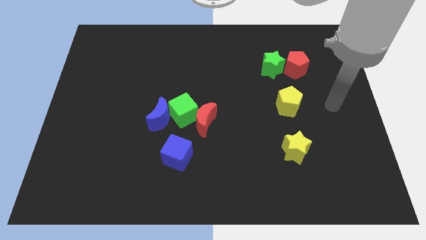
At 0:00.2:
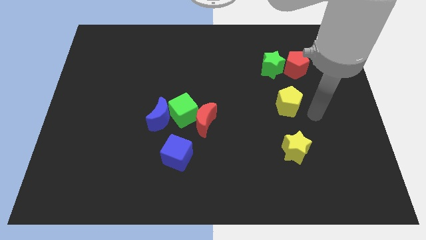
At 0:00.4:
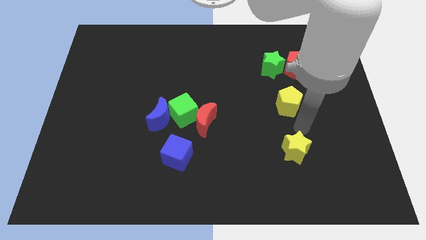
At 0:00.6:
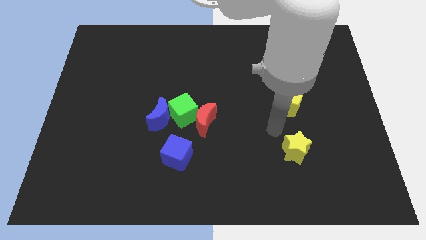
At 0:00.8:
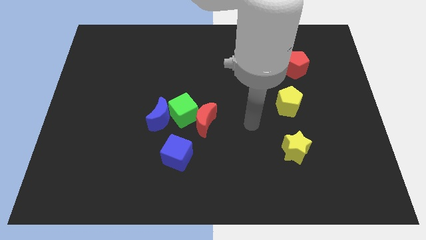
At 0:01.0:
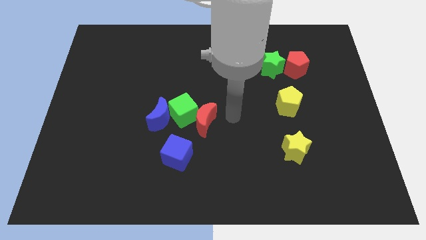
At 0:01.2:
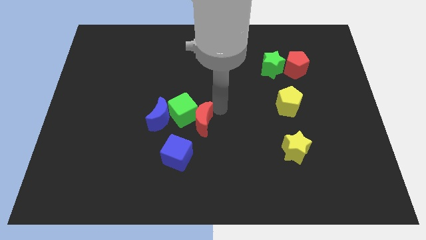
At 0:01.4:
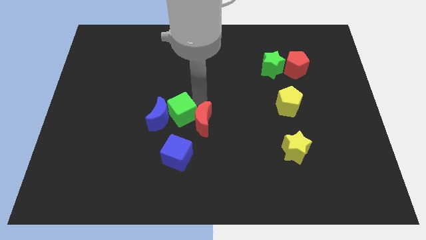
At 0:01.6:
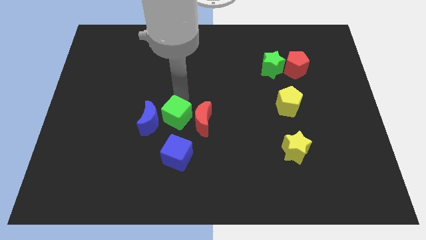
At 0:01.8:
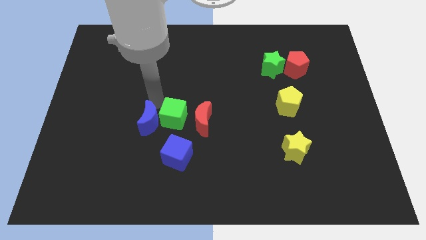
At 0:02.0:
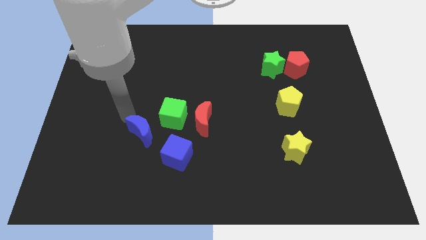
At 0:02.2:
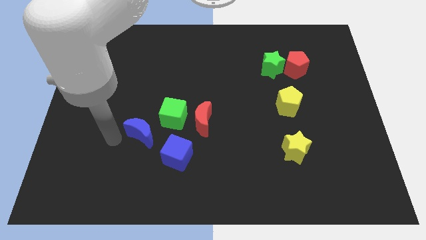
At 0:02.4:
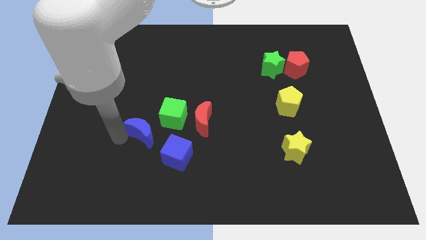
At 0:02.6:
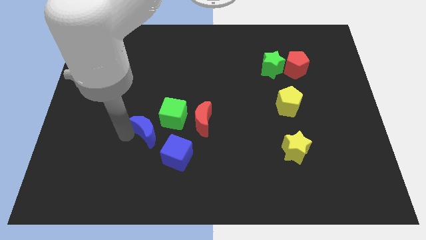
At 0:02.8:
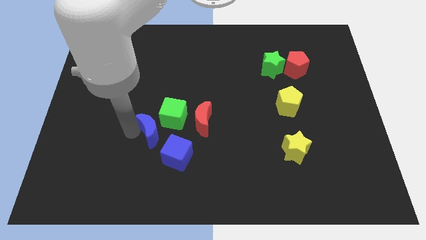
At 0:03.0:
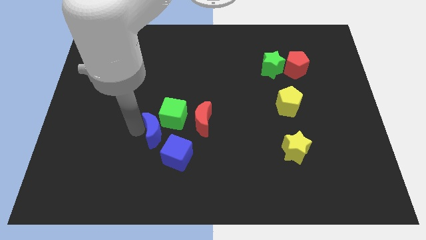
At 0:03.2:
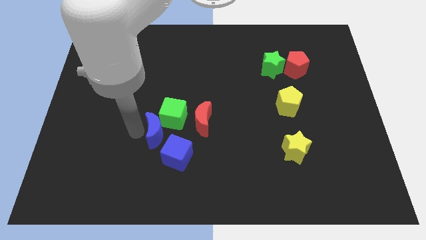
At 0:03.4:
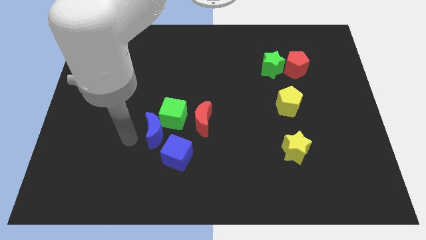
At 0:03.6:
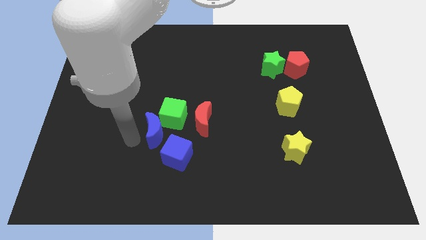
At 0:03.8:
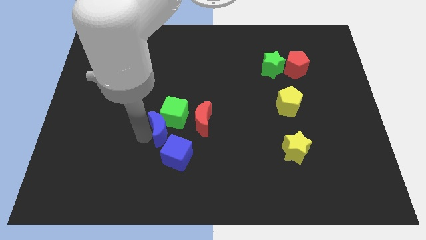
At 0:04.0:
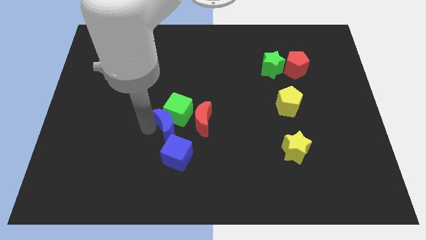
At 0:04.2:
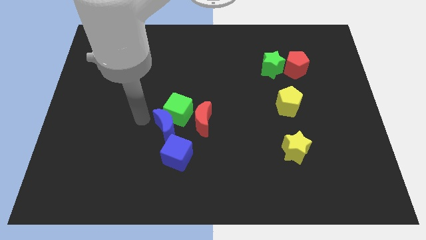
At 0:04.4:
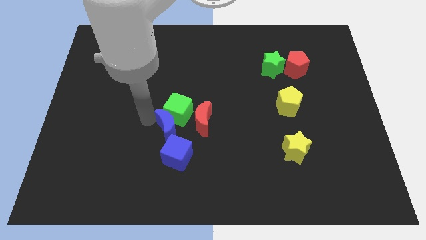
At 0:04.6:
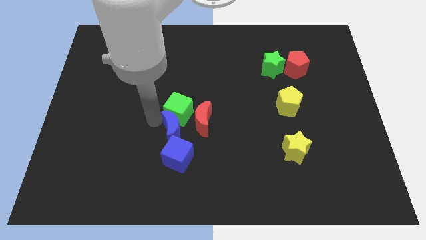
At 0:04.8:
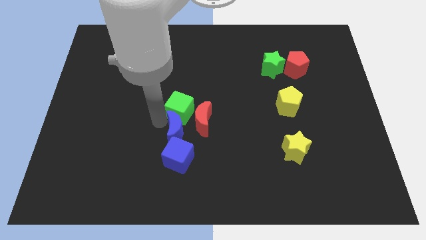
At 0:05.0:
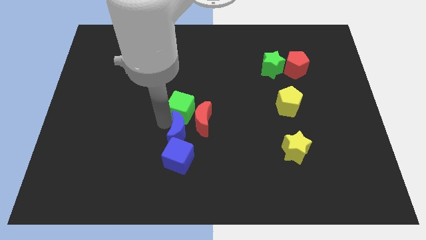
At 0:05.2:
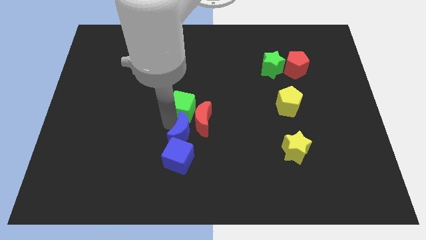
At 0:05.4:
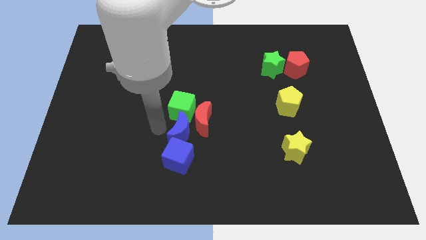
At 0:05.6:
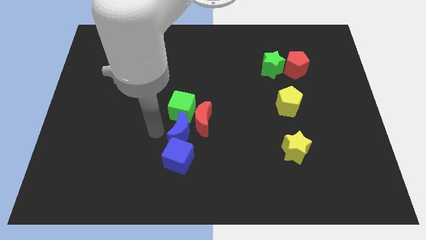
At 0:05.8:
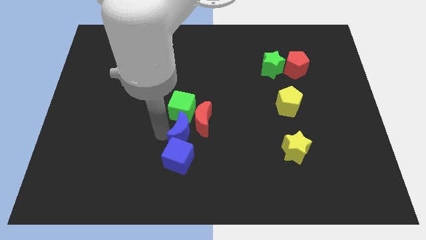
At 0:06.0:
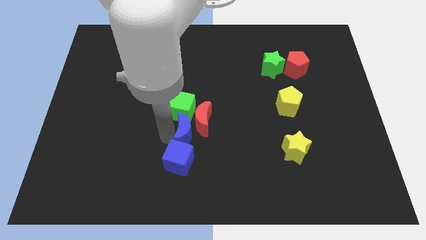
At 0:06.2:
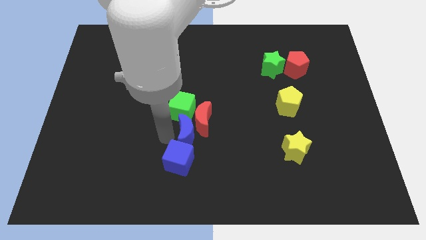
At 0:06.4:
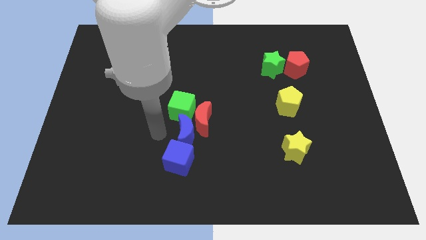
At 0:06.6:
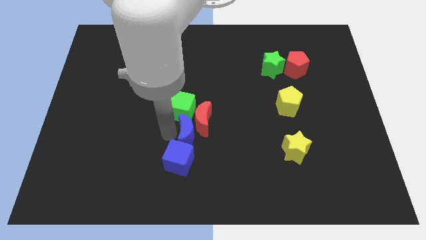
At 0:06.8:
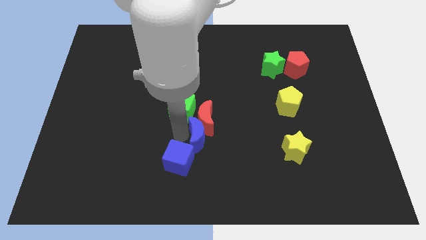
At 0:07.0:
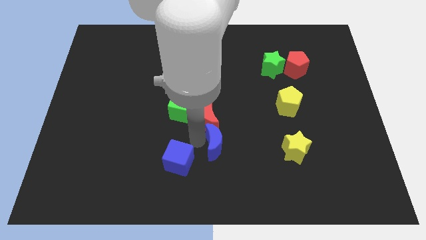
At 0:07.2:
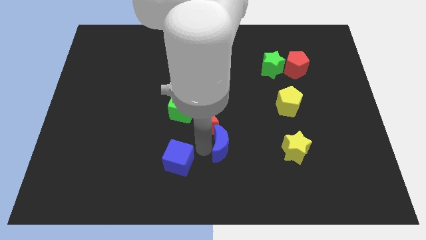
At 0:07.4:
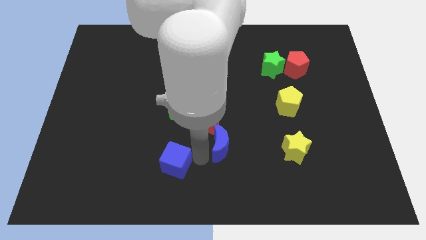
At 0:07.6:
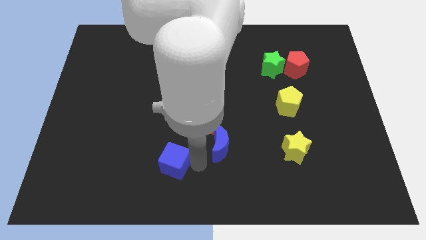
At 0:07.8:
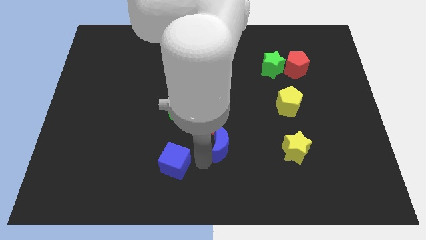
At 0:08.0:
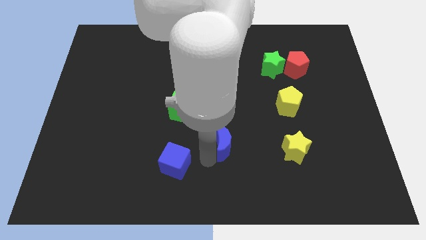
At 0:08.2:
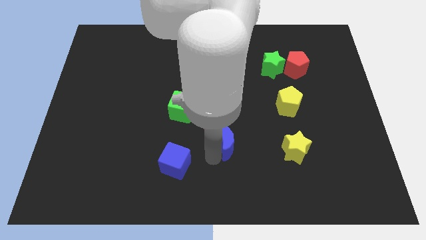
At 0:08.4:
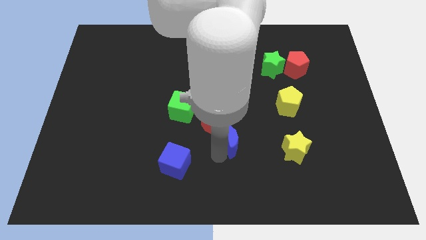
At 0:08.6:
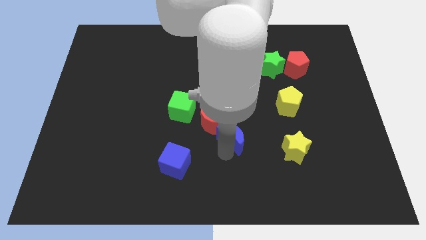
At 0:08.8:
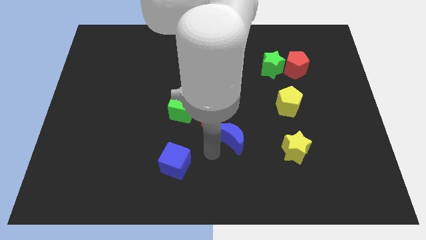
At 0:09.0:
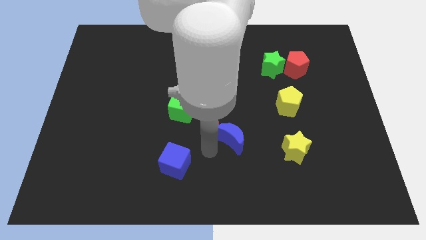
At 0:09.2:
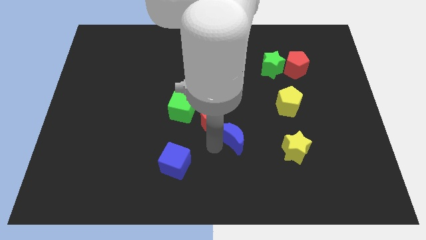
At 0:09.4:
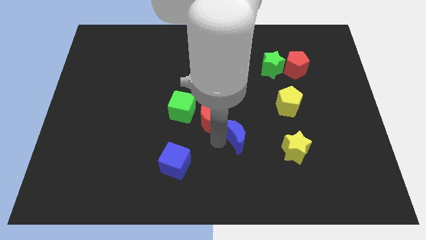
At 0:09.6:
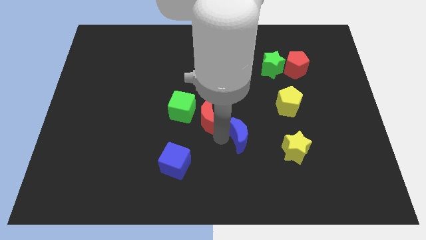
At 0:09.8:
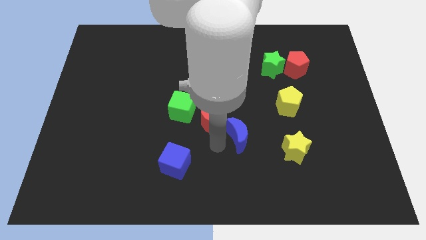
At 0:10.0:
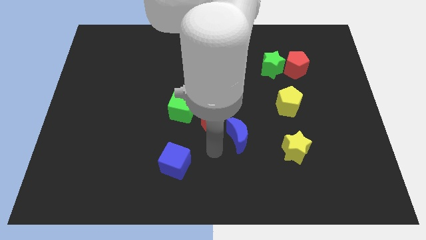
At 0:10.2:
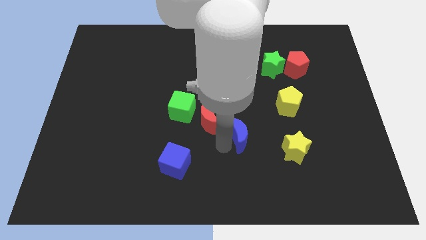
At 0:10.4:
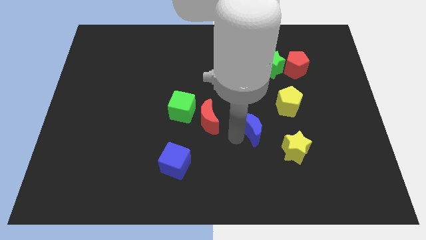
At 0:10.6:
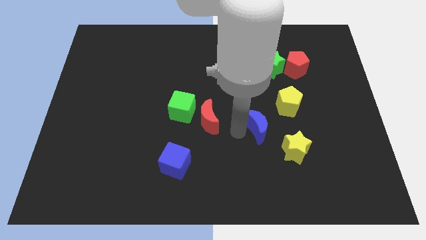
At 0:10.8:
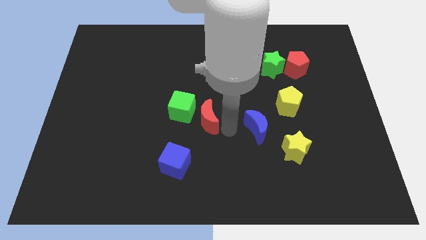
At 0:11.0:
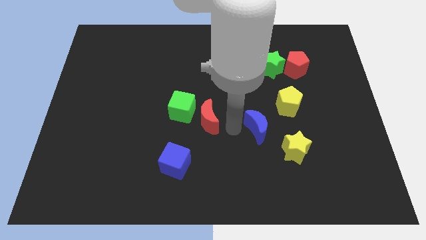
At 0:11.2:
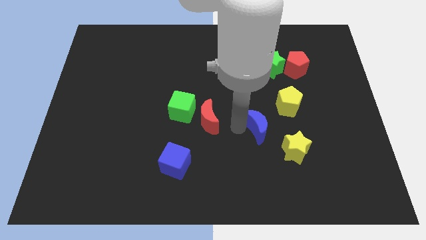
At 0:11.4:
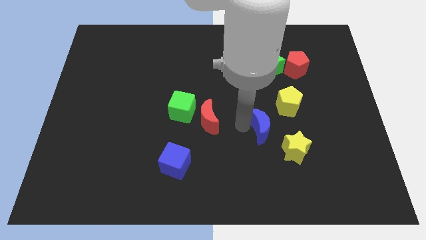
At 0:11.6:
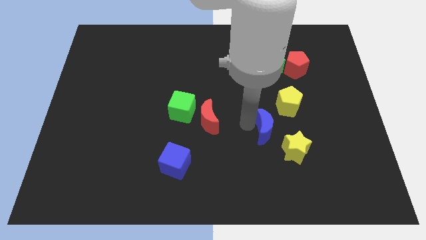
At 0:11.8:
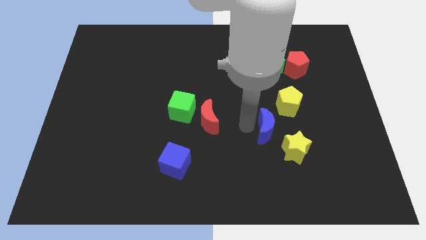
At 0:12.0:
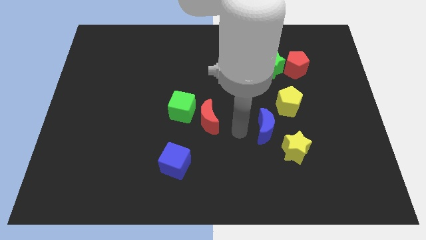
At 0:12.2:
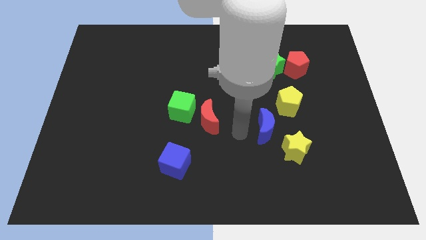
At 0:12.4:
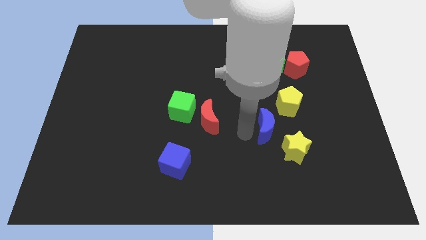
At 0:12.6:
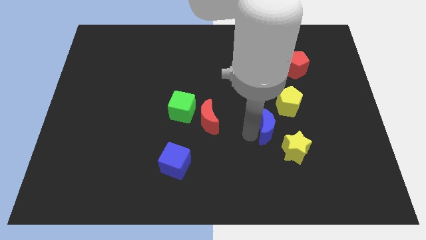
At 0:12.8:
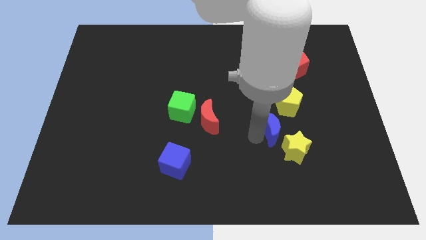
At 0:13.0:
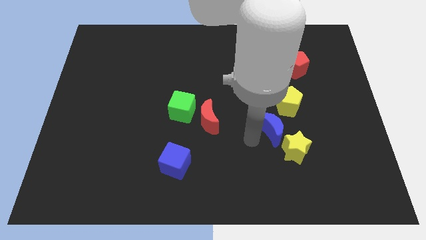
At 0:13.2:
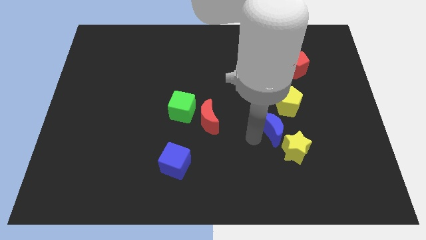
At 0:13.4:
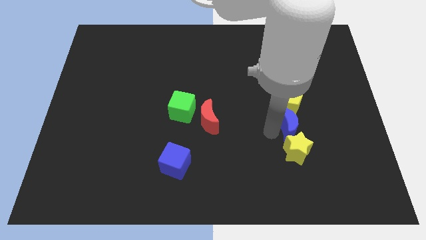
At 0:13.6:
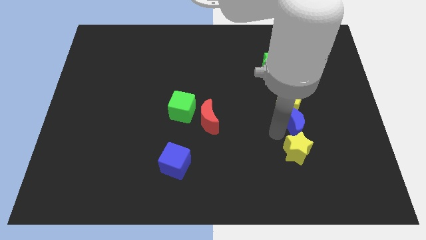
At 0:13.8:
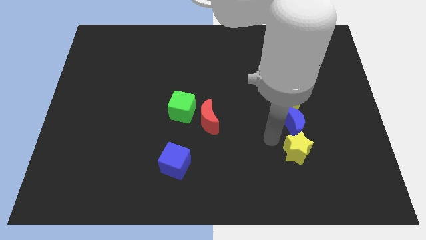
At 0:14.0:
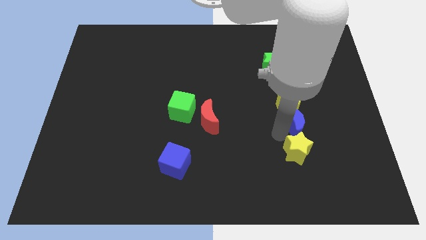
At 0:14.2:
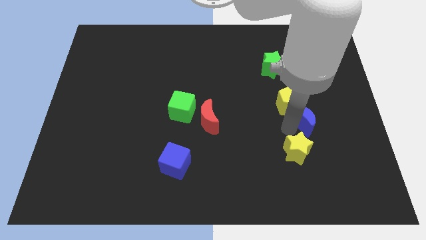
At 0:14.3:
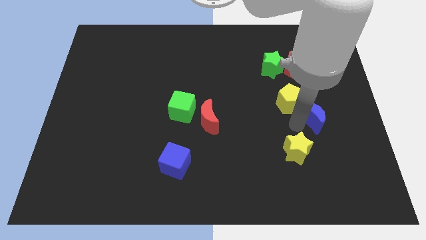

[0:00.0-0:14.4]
slide the blue moon right of the yellow pentagon
